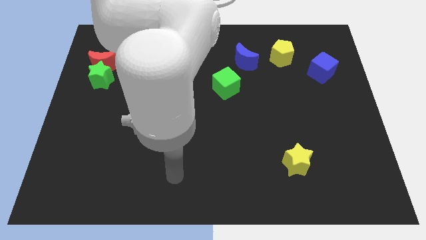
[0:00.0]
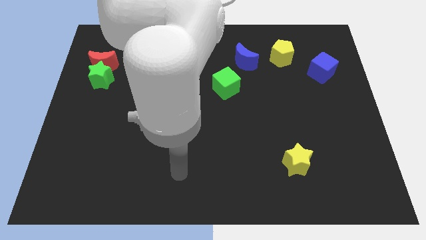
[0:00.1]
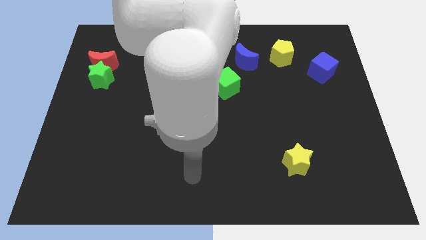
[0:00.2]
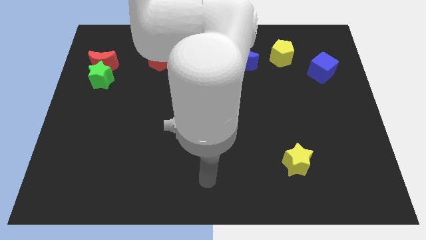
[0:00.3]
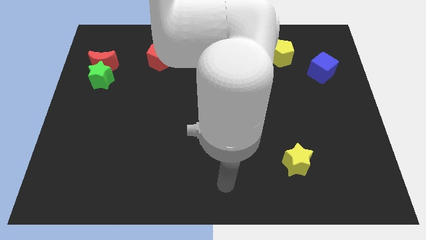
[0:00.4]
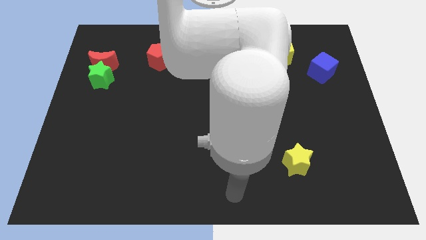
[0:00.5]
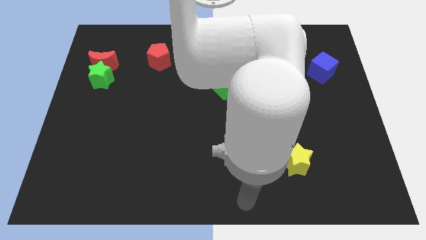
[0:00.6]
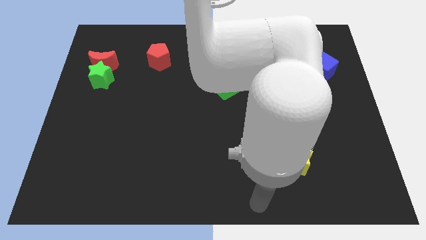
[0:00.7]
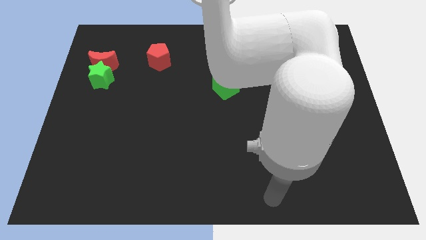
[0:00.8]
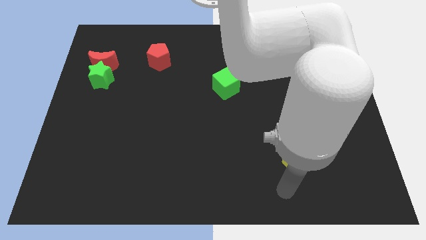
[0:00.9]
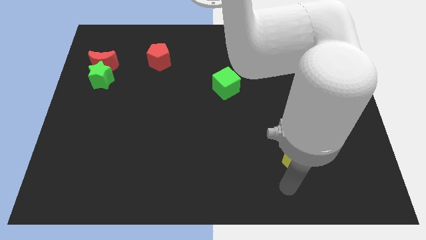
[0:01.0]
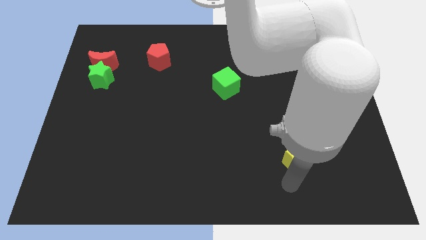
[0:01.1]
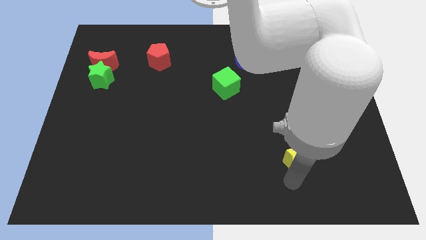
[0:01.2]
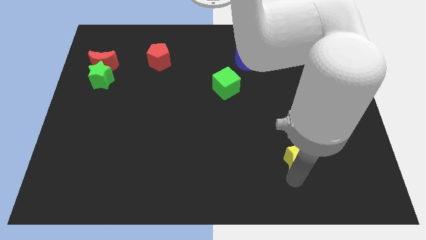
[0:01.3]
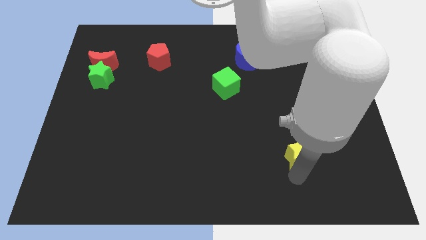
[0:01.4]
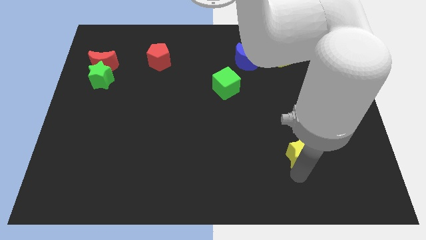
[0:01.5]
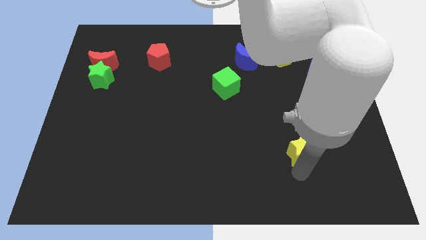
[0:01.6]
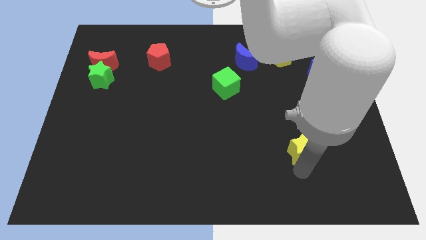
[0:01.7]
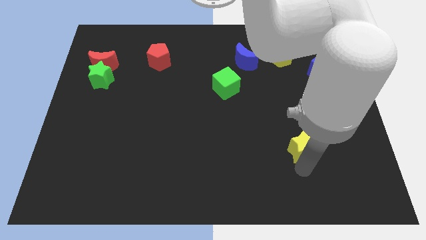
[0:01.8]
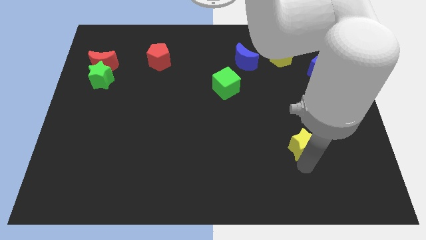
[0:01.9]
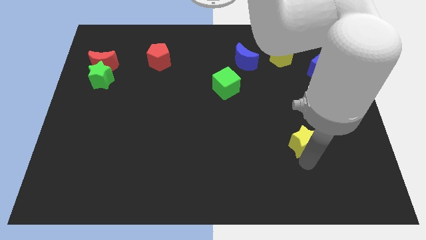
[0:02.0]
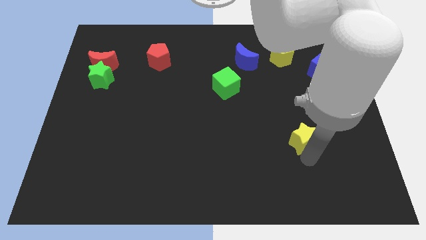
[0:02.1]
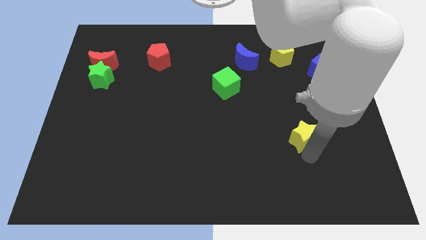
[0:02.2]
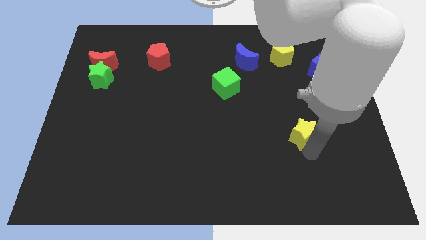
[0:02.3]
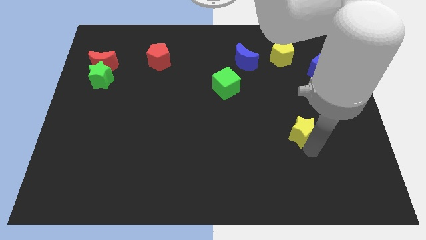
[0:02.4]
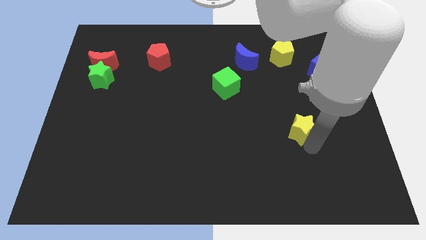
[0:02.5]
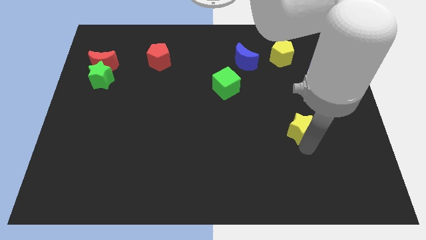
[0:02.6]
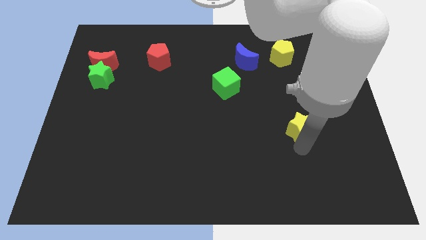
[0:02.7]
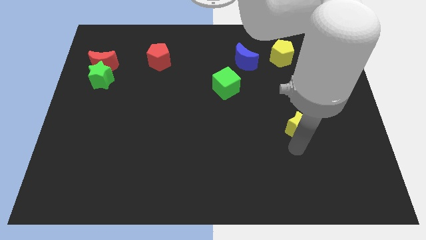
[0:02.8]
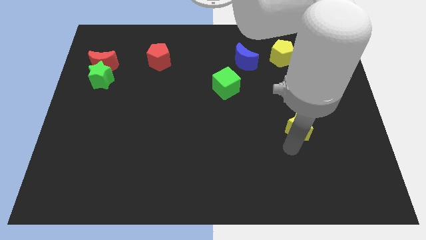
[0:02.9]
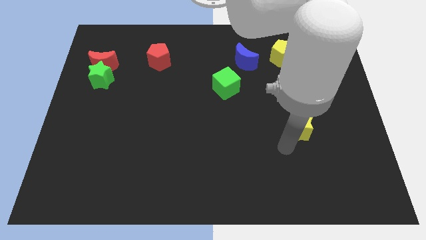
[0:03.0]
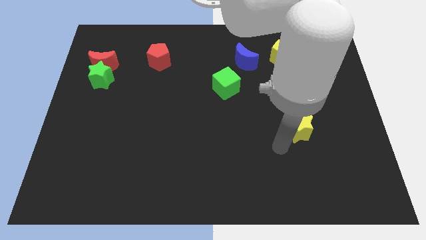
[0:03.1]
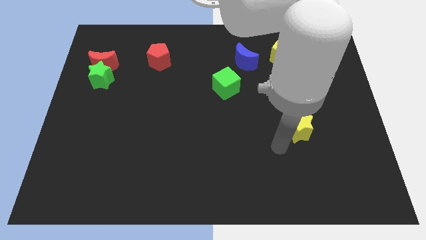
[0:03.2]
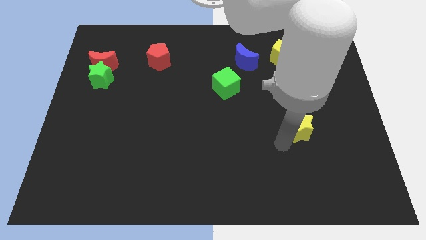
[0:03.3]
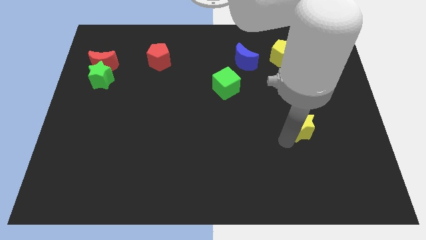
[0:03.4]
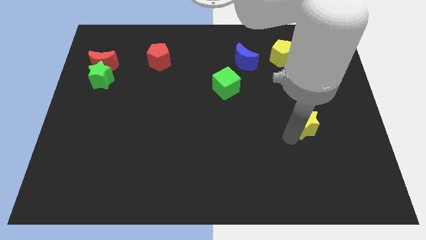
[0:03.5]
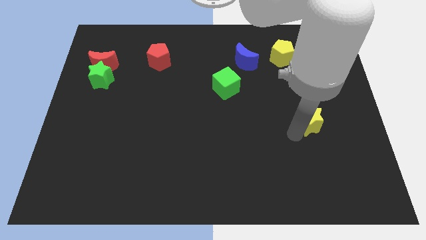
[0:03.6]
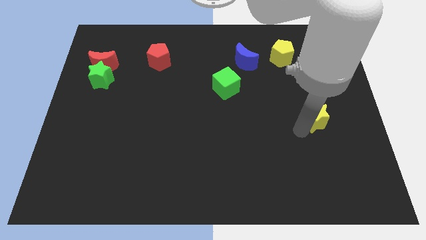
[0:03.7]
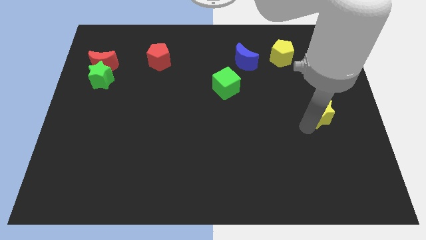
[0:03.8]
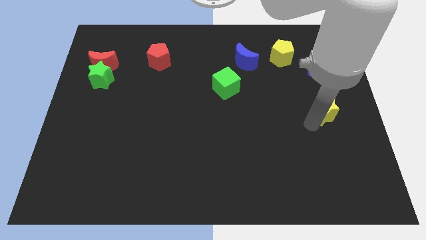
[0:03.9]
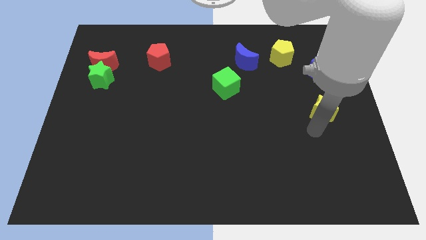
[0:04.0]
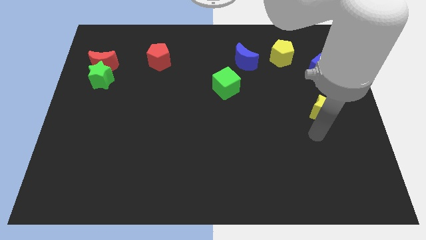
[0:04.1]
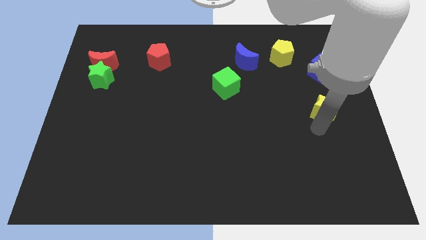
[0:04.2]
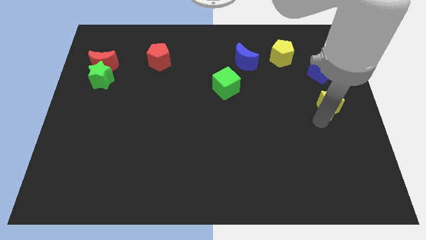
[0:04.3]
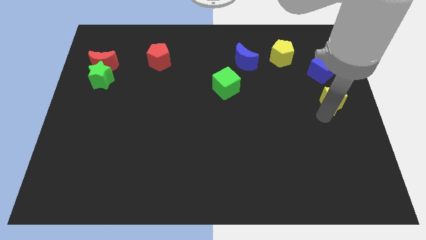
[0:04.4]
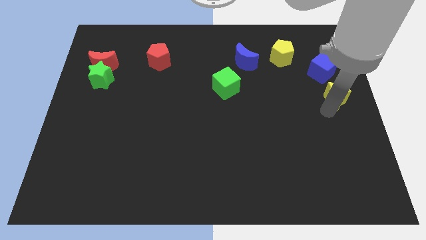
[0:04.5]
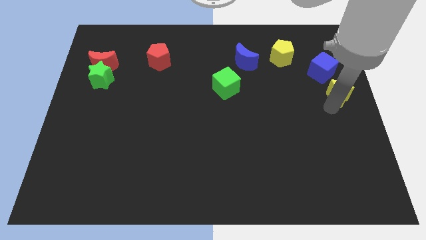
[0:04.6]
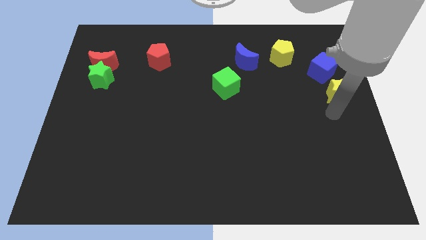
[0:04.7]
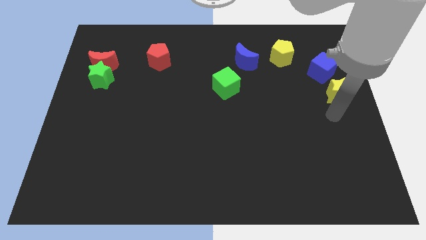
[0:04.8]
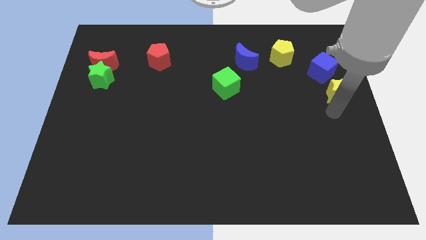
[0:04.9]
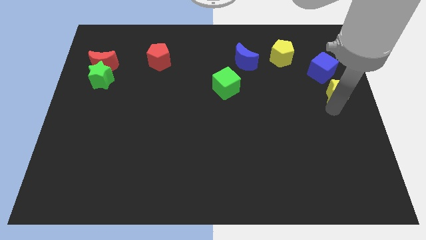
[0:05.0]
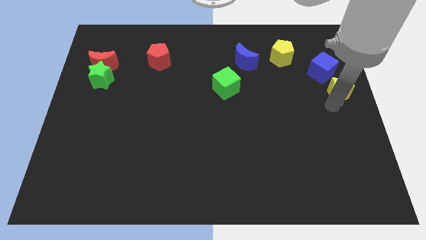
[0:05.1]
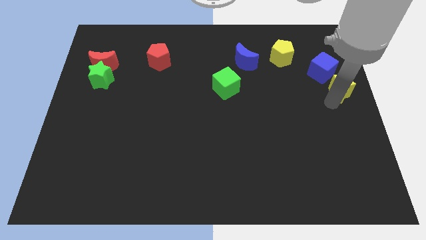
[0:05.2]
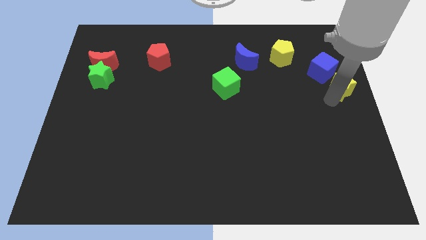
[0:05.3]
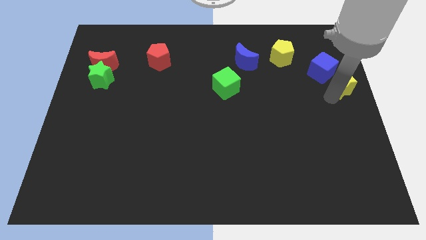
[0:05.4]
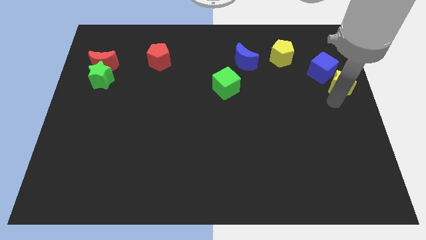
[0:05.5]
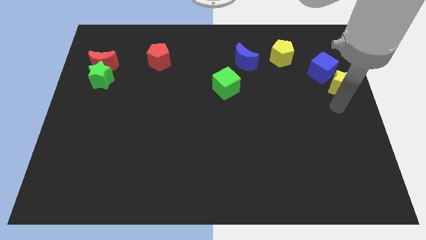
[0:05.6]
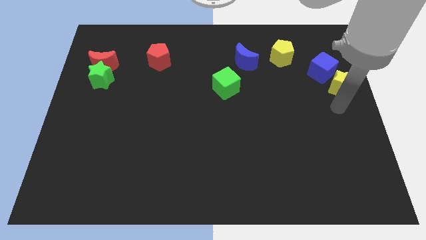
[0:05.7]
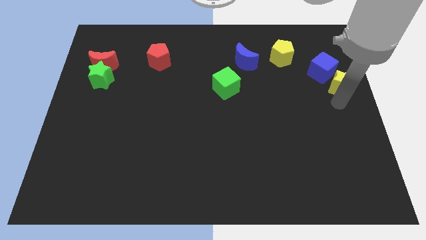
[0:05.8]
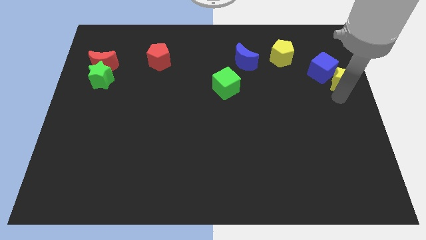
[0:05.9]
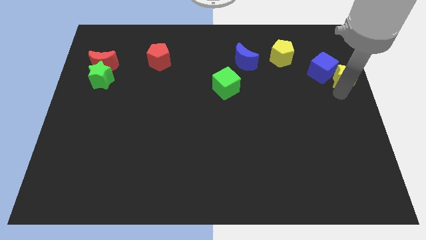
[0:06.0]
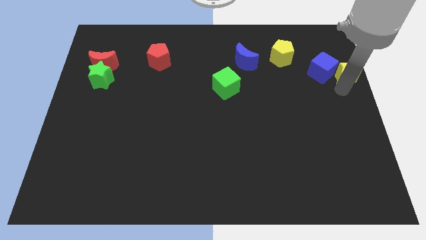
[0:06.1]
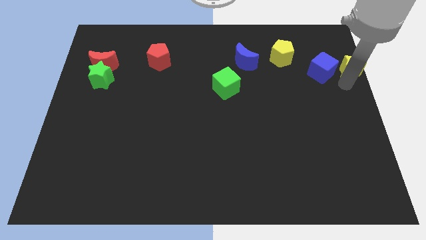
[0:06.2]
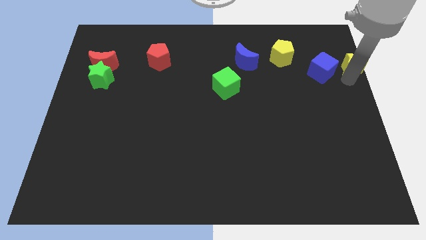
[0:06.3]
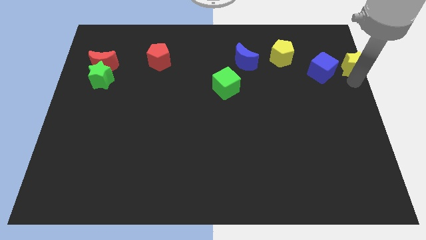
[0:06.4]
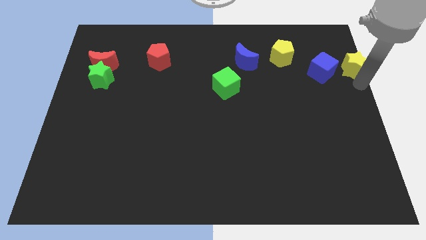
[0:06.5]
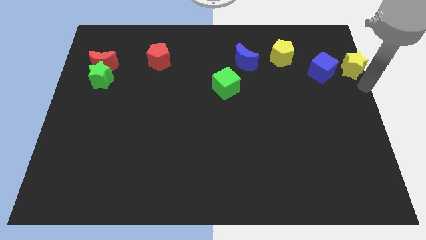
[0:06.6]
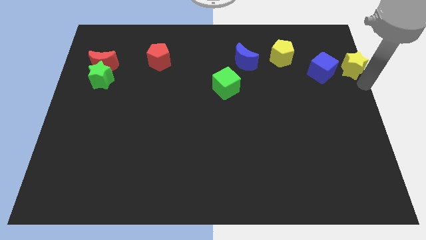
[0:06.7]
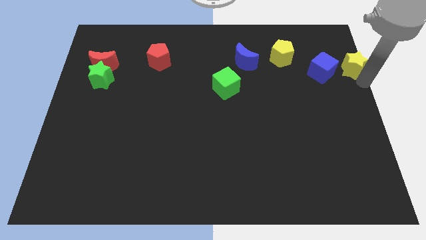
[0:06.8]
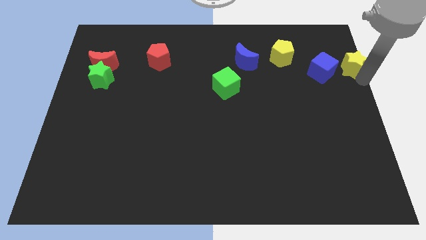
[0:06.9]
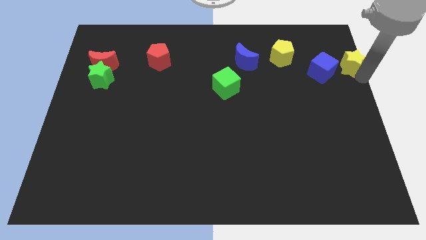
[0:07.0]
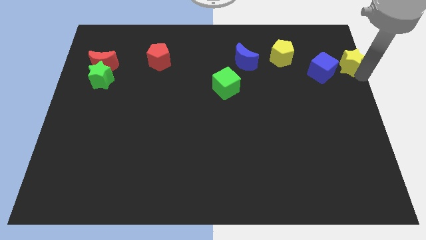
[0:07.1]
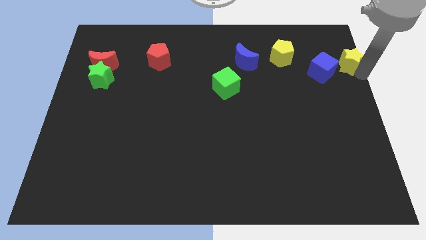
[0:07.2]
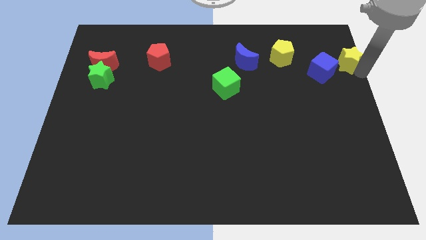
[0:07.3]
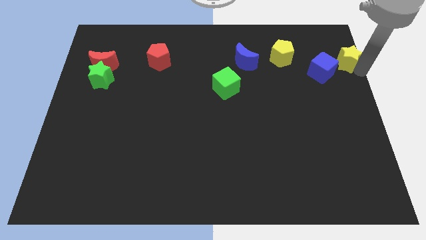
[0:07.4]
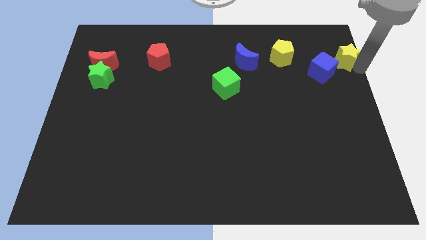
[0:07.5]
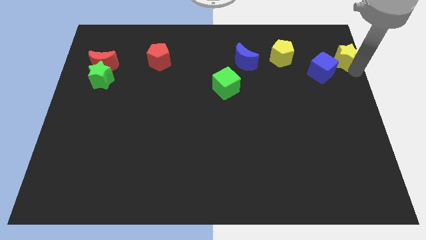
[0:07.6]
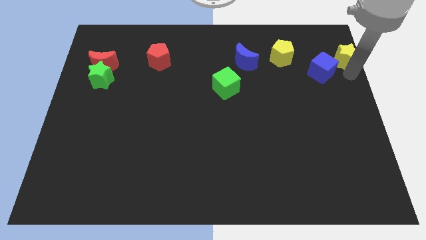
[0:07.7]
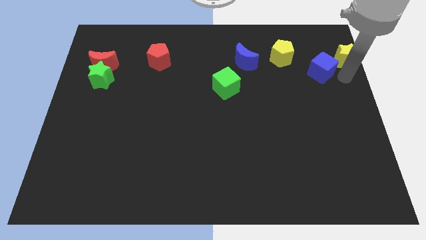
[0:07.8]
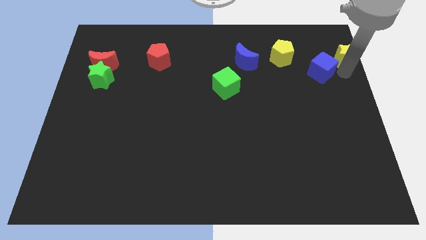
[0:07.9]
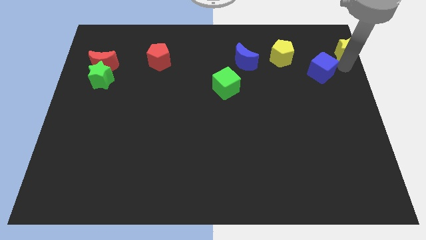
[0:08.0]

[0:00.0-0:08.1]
move the yellow star to the upper right corner
